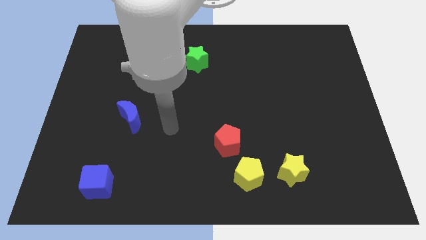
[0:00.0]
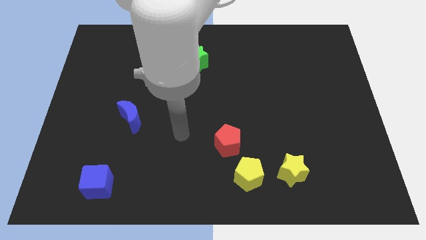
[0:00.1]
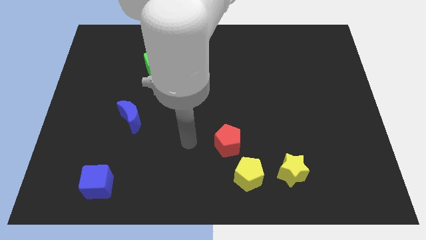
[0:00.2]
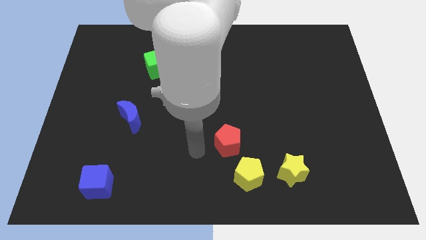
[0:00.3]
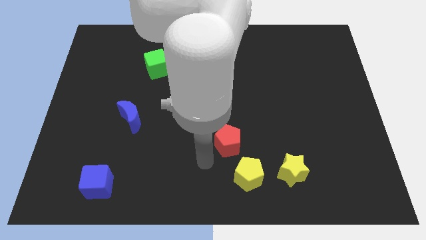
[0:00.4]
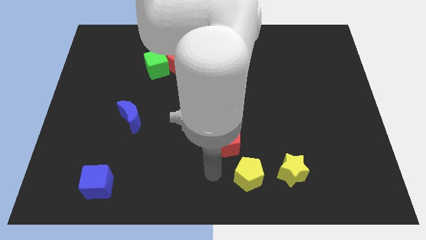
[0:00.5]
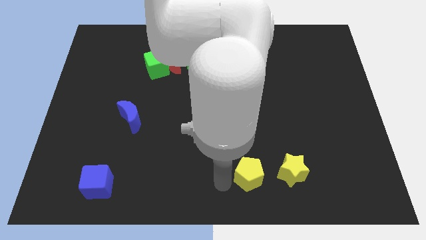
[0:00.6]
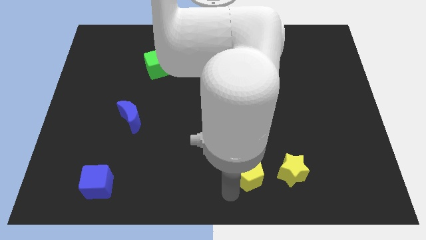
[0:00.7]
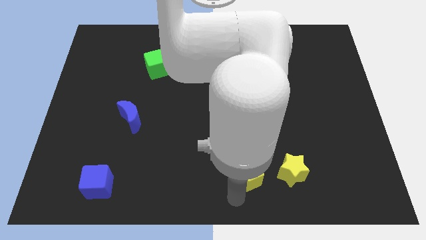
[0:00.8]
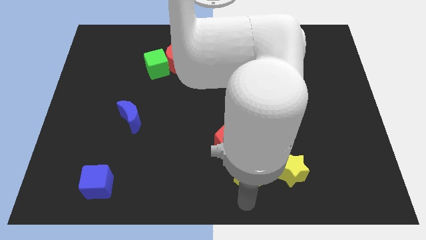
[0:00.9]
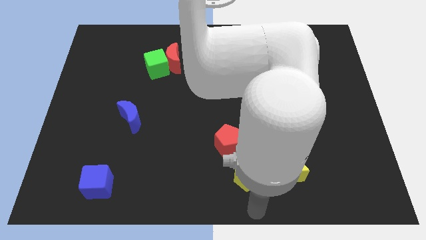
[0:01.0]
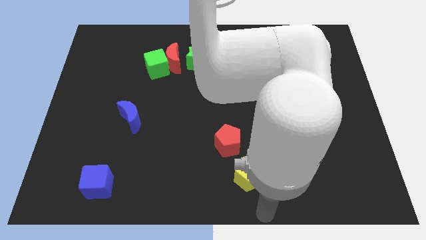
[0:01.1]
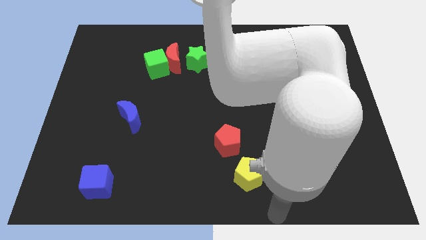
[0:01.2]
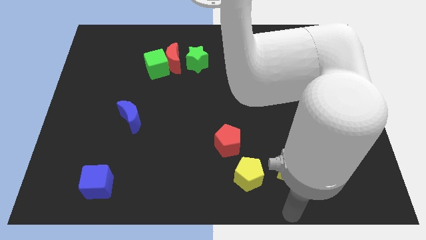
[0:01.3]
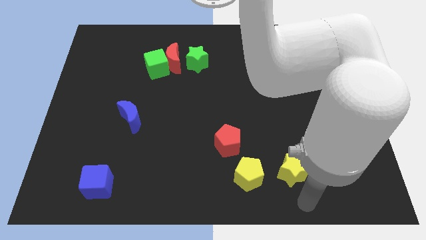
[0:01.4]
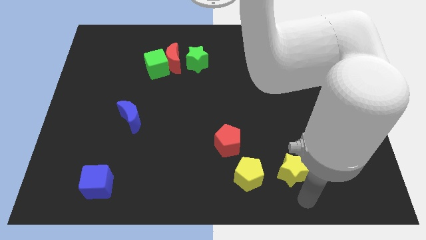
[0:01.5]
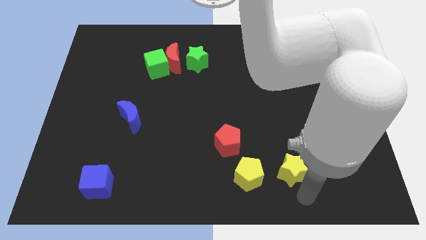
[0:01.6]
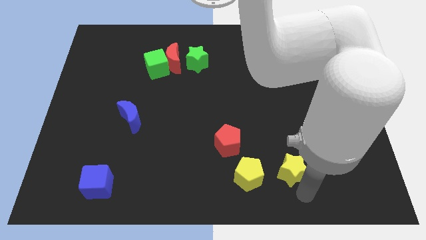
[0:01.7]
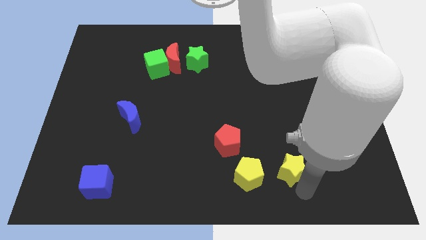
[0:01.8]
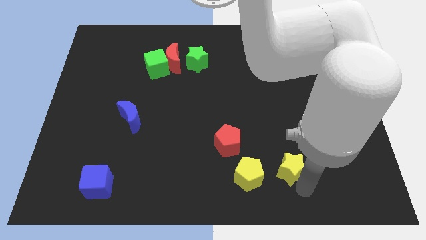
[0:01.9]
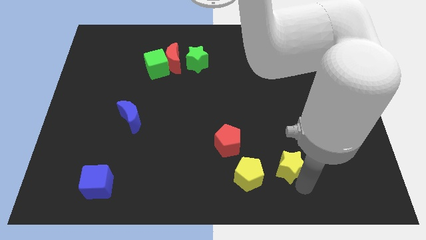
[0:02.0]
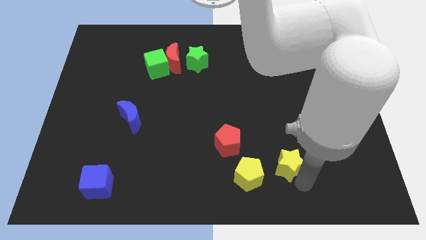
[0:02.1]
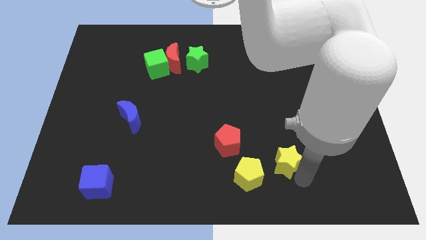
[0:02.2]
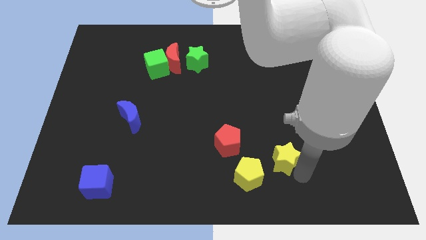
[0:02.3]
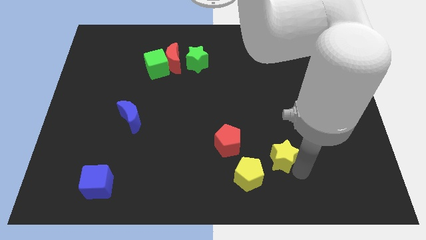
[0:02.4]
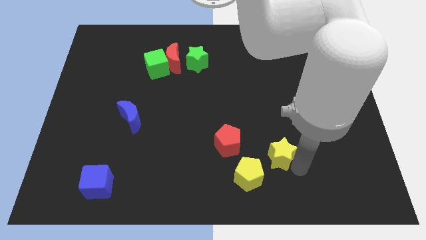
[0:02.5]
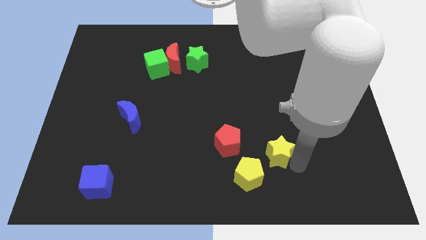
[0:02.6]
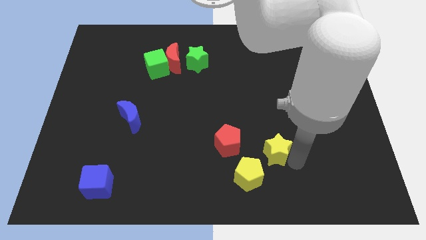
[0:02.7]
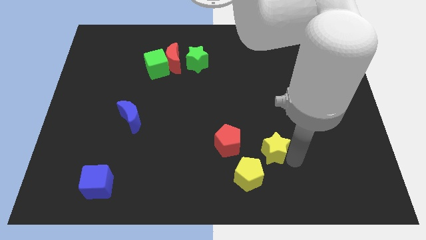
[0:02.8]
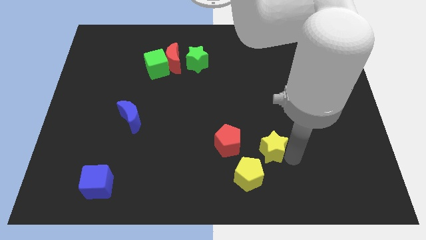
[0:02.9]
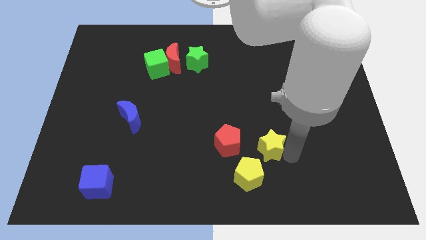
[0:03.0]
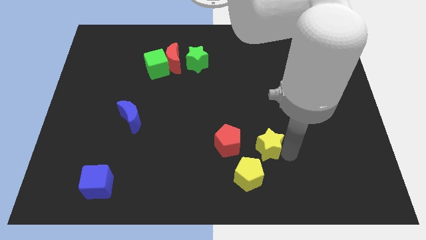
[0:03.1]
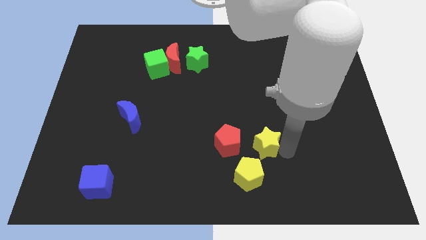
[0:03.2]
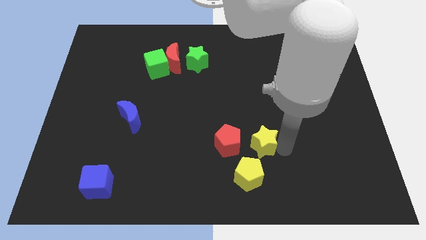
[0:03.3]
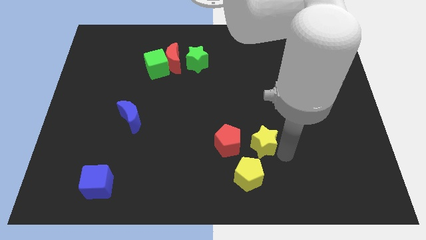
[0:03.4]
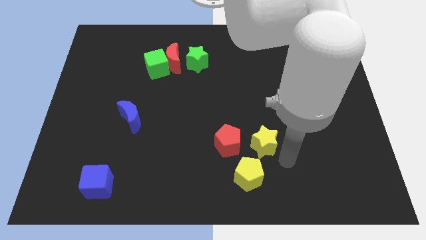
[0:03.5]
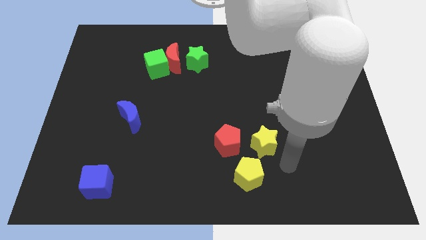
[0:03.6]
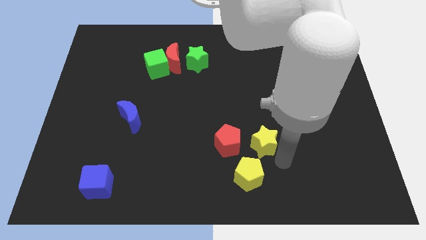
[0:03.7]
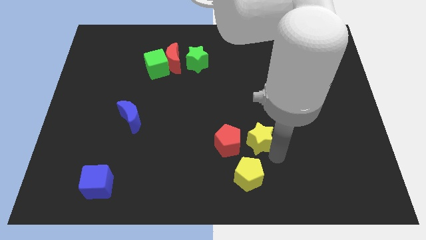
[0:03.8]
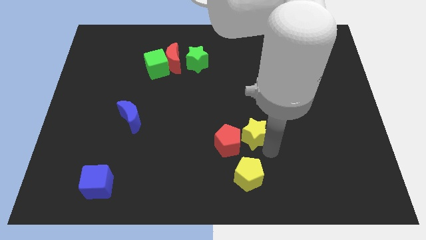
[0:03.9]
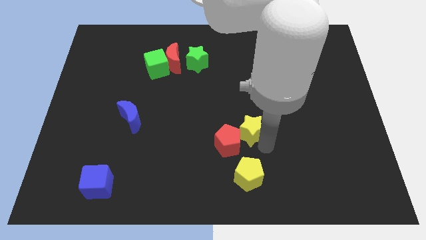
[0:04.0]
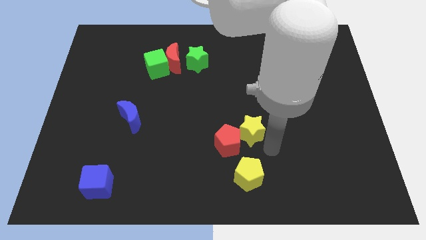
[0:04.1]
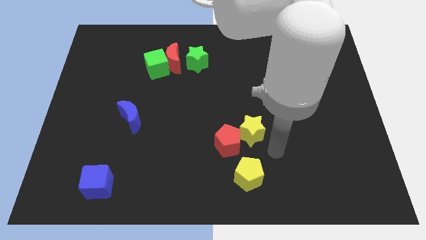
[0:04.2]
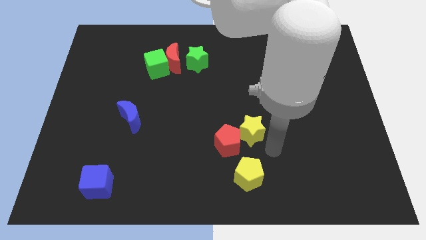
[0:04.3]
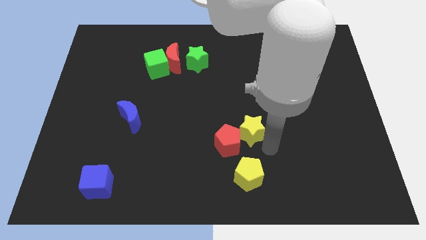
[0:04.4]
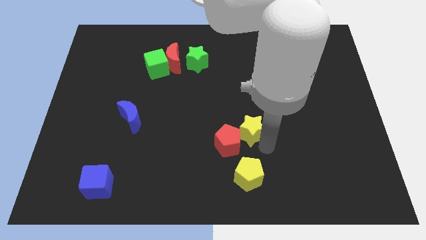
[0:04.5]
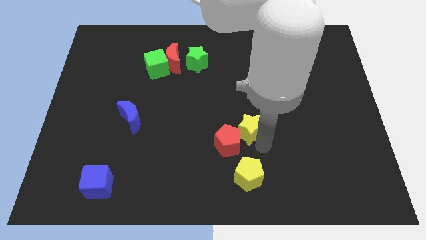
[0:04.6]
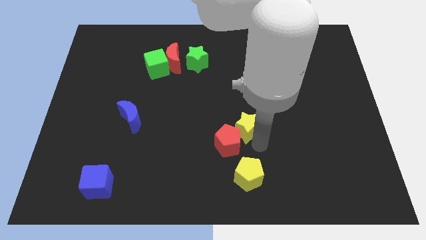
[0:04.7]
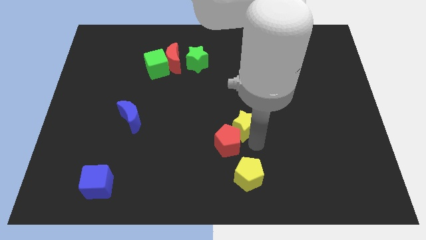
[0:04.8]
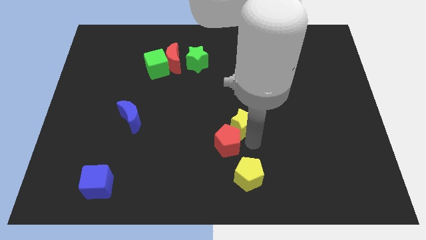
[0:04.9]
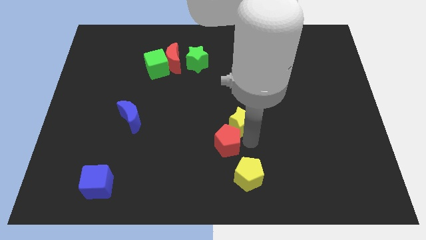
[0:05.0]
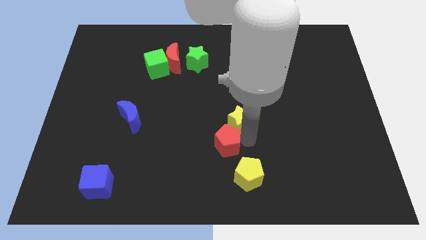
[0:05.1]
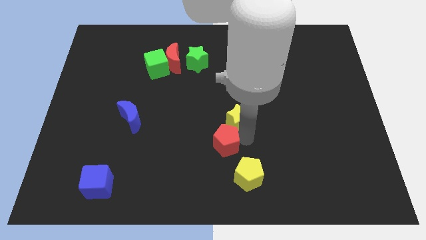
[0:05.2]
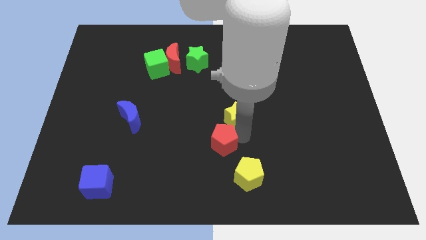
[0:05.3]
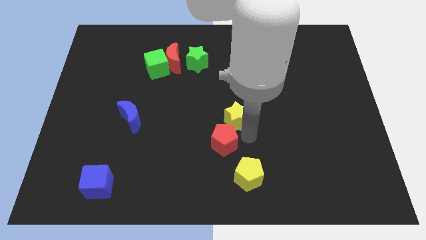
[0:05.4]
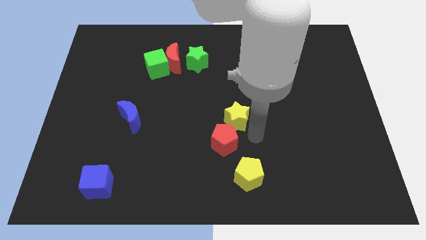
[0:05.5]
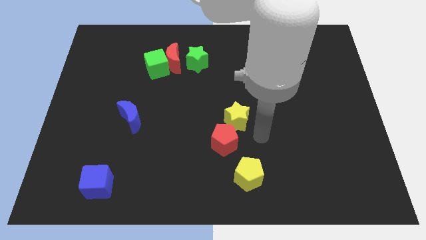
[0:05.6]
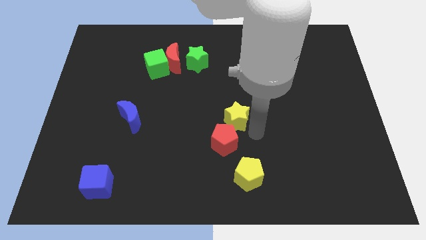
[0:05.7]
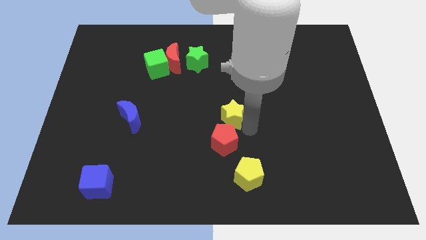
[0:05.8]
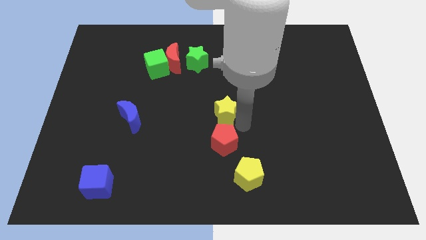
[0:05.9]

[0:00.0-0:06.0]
push the yellow star upwards and to the left diagonally

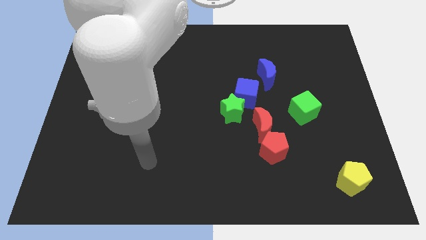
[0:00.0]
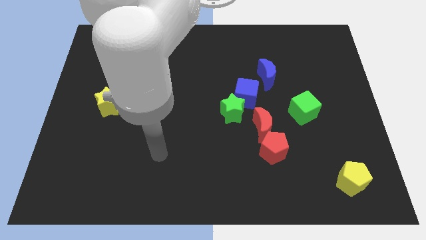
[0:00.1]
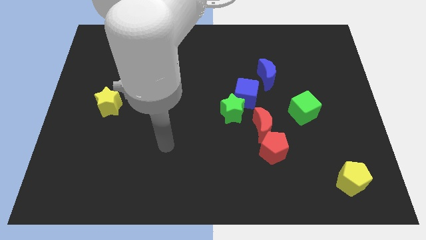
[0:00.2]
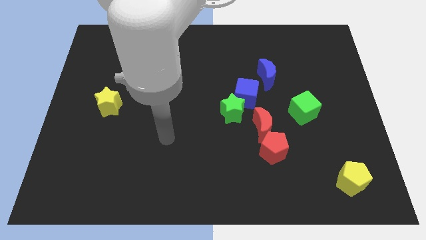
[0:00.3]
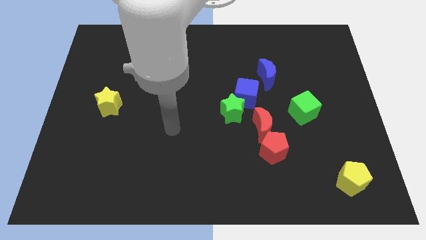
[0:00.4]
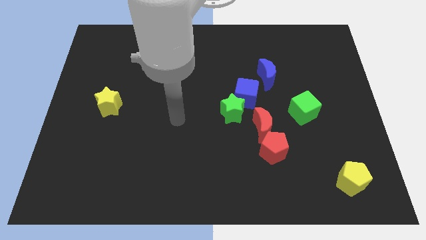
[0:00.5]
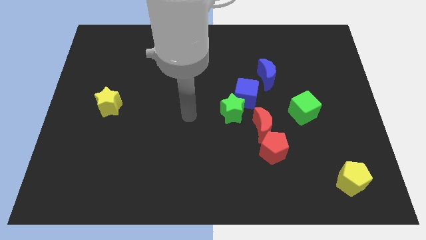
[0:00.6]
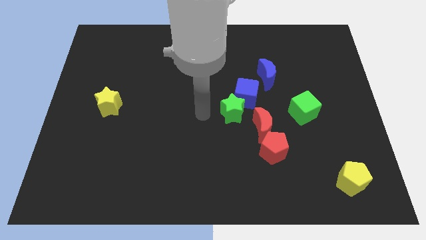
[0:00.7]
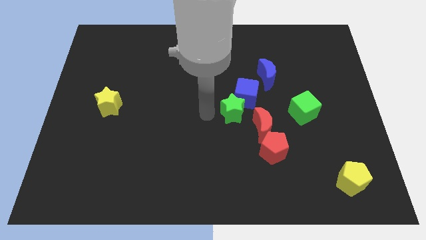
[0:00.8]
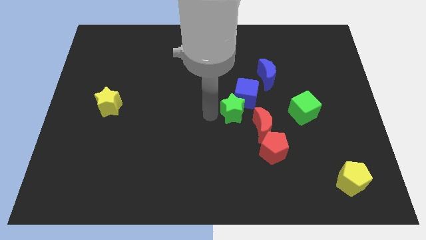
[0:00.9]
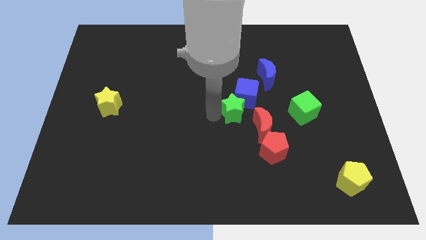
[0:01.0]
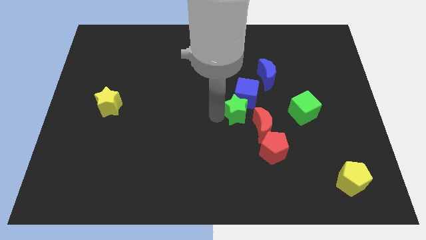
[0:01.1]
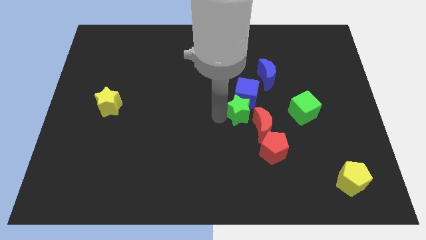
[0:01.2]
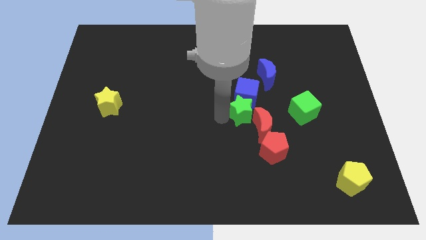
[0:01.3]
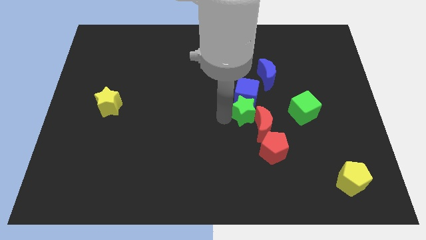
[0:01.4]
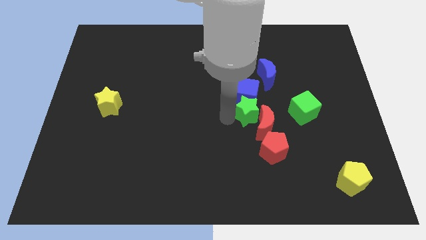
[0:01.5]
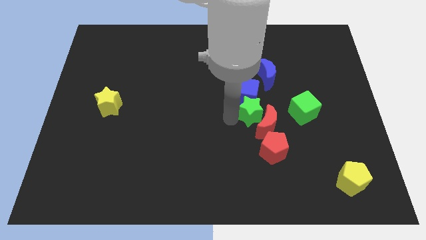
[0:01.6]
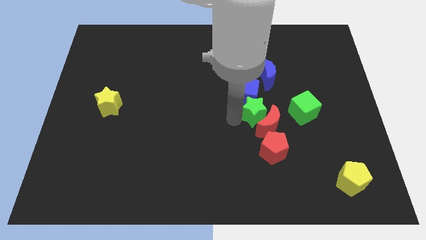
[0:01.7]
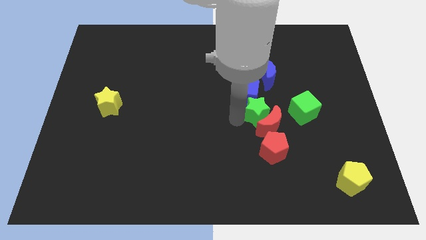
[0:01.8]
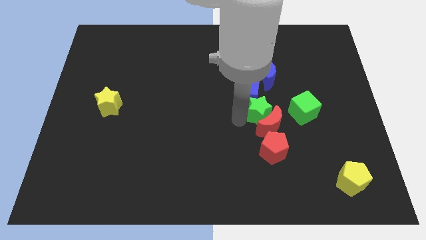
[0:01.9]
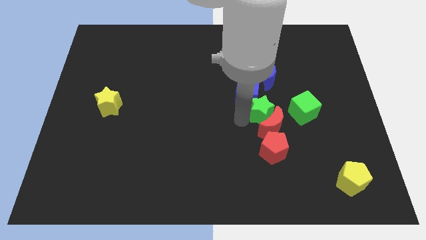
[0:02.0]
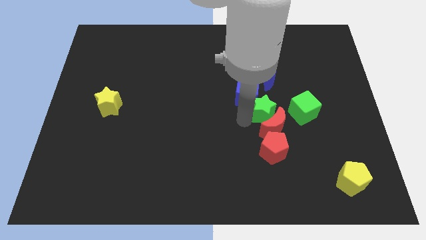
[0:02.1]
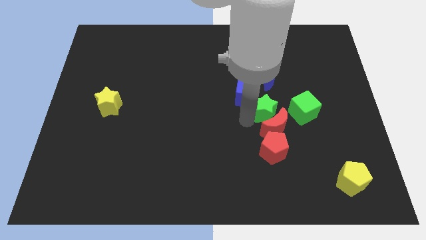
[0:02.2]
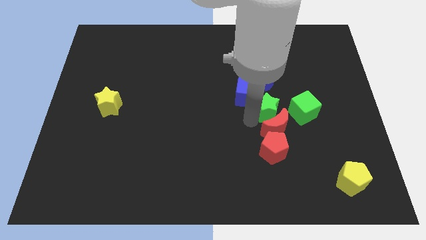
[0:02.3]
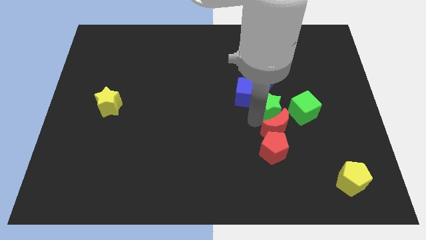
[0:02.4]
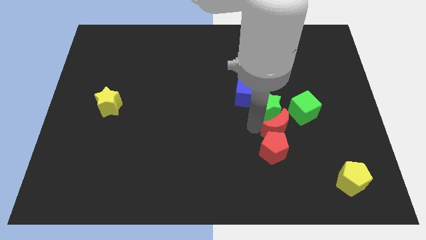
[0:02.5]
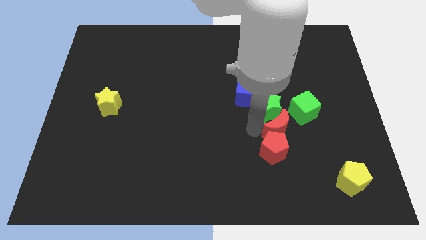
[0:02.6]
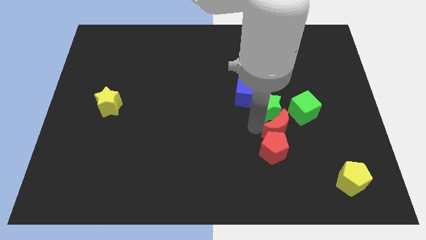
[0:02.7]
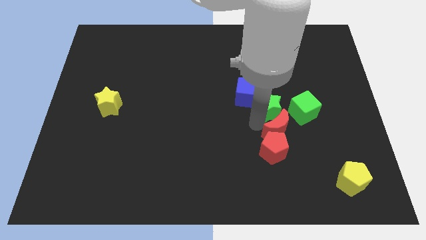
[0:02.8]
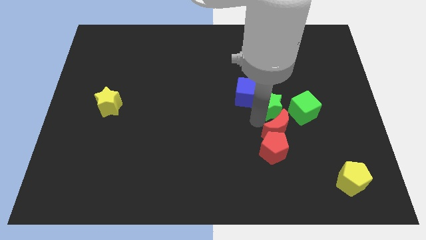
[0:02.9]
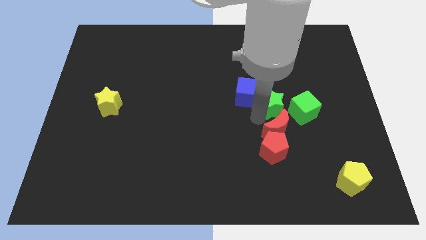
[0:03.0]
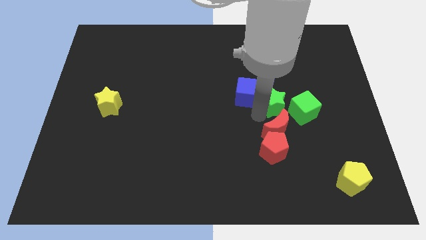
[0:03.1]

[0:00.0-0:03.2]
move the green star up and to the right slightly
